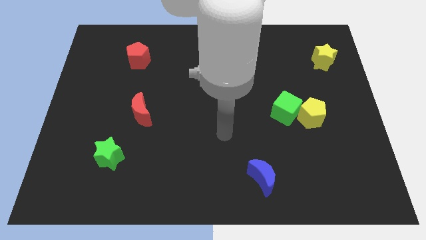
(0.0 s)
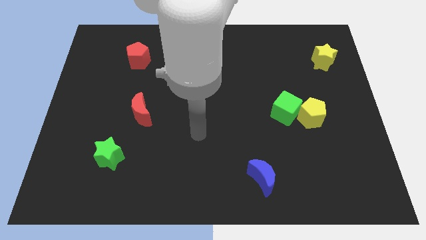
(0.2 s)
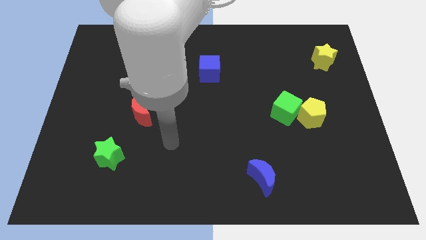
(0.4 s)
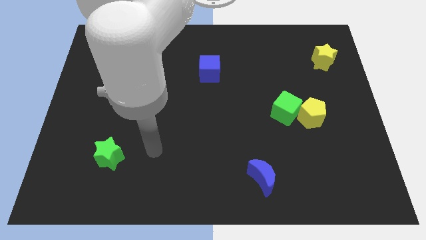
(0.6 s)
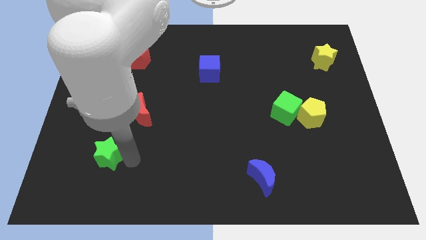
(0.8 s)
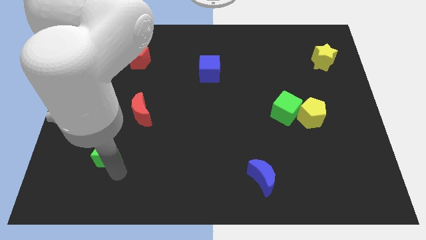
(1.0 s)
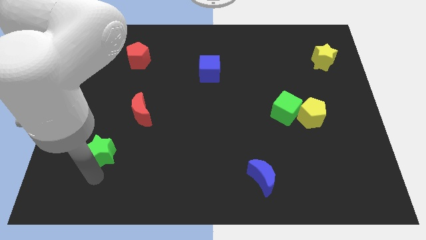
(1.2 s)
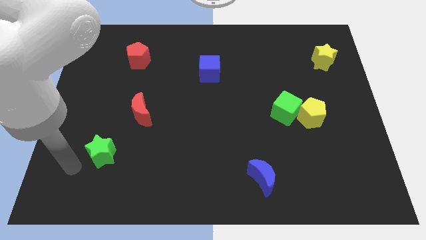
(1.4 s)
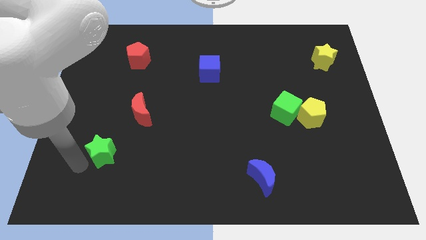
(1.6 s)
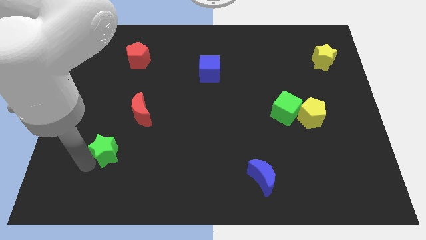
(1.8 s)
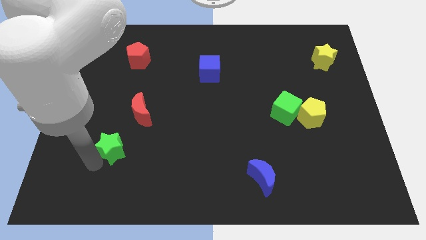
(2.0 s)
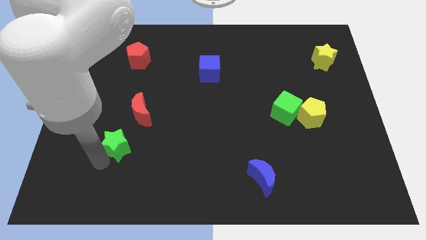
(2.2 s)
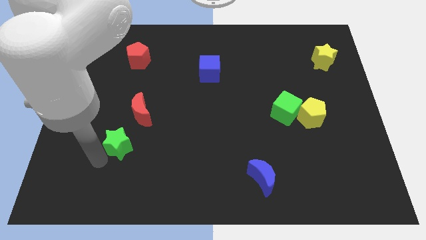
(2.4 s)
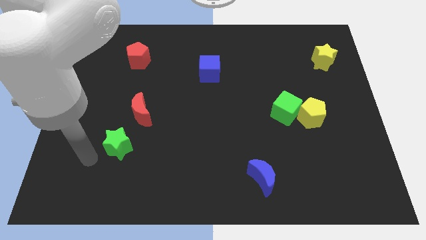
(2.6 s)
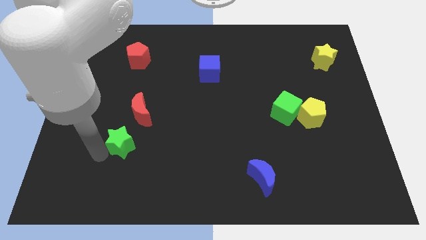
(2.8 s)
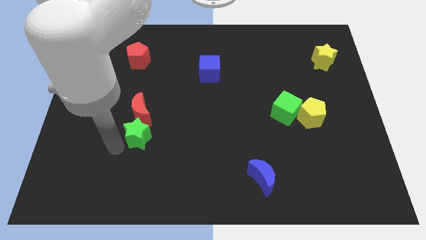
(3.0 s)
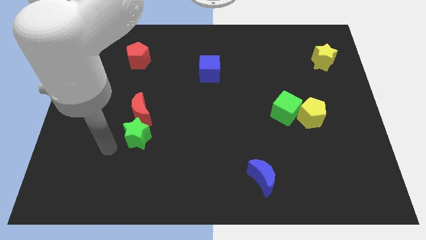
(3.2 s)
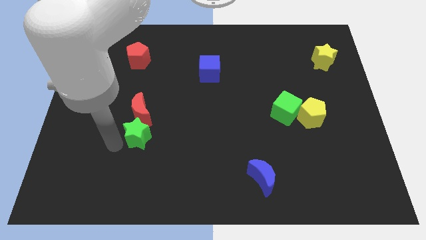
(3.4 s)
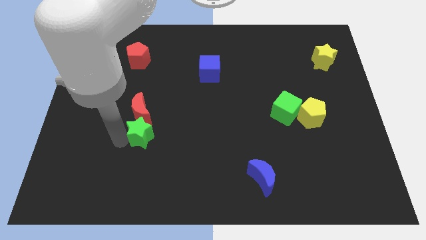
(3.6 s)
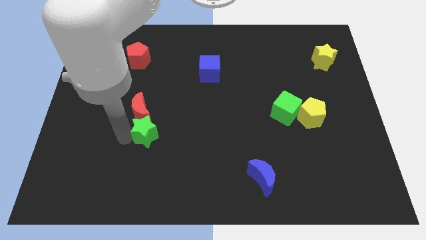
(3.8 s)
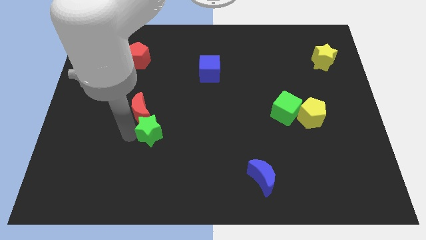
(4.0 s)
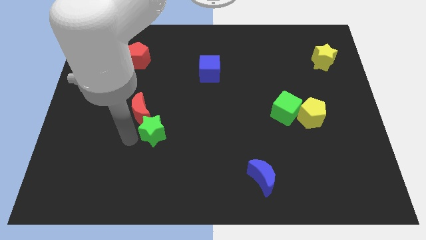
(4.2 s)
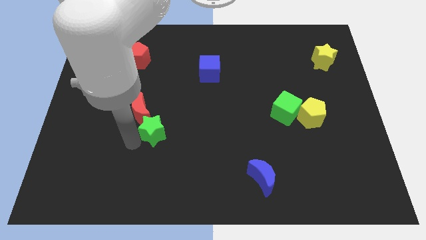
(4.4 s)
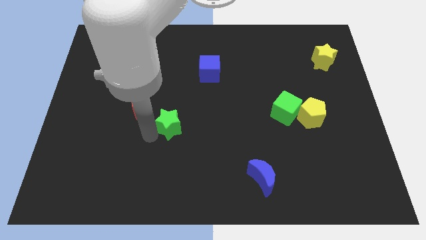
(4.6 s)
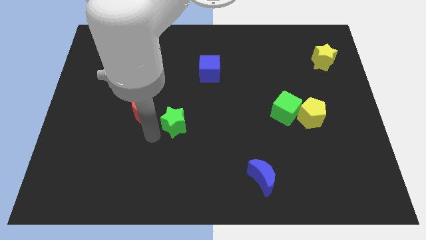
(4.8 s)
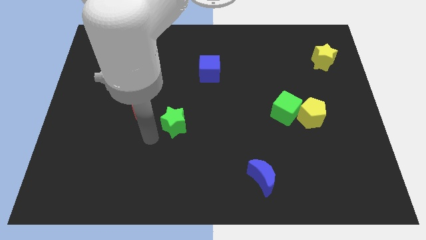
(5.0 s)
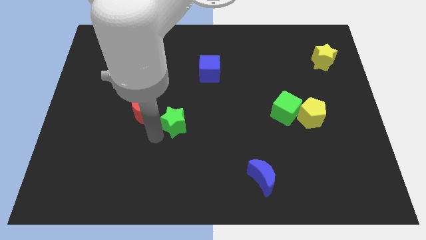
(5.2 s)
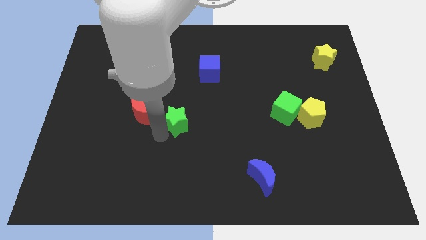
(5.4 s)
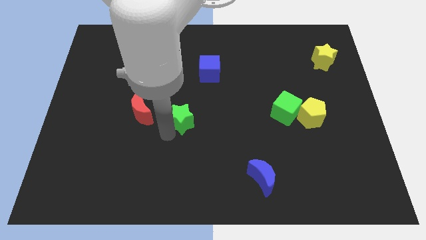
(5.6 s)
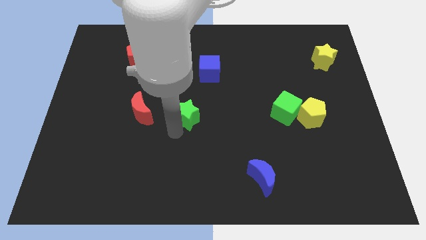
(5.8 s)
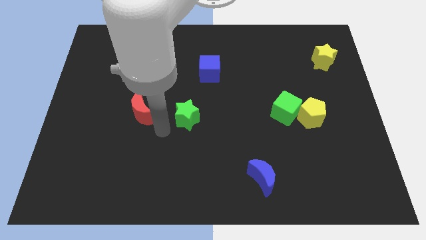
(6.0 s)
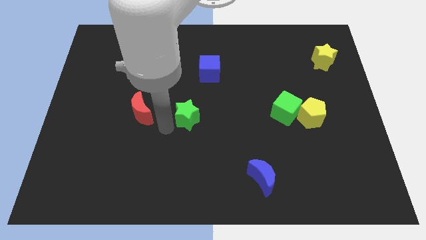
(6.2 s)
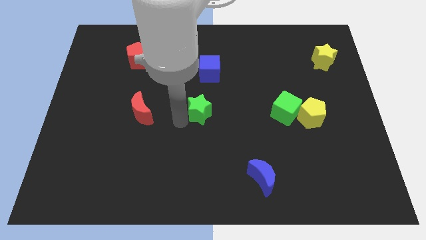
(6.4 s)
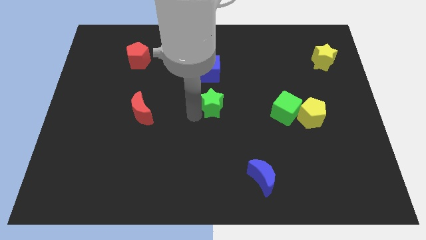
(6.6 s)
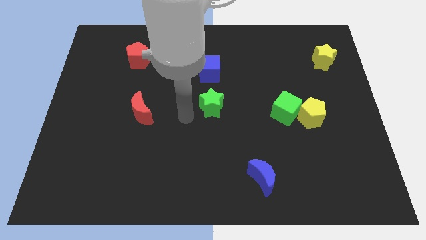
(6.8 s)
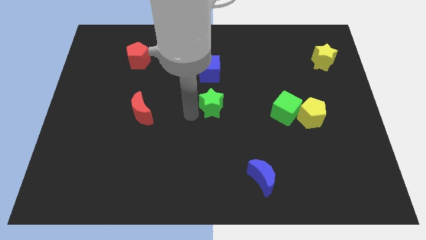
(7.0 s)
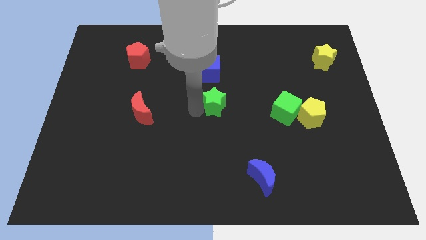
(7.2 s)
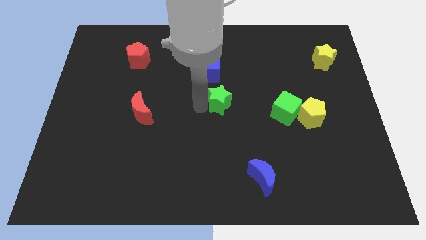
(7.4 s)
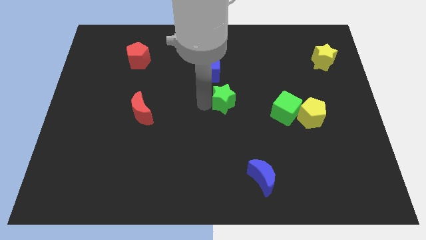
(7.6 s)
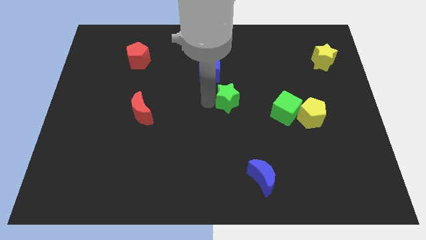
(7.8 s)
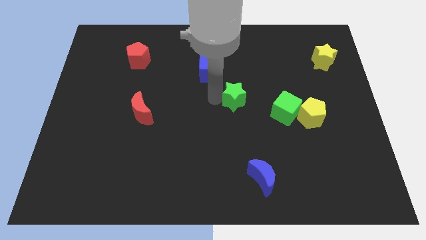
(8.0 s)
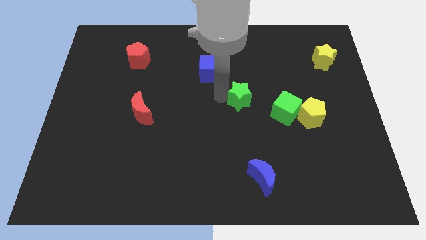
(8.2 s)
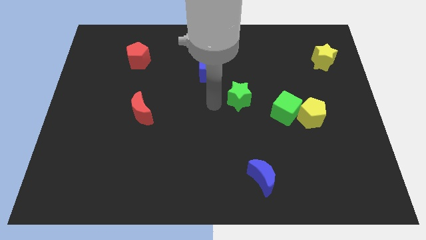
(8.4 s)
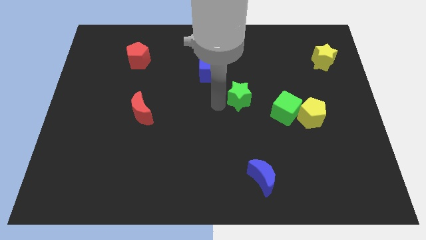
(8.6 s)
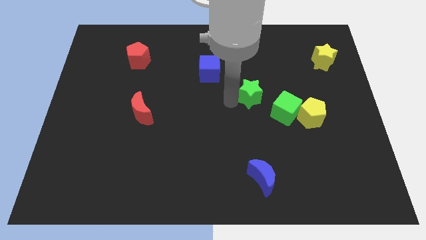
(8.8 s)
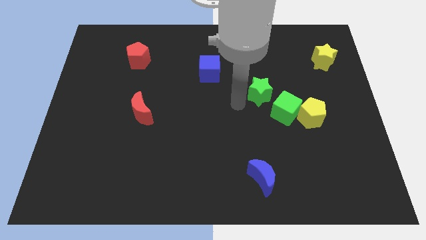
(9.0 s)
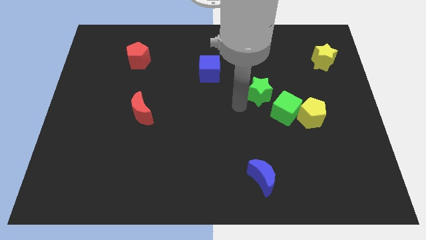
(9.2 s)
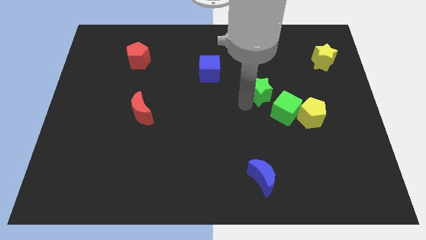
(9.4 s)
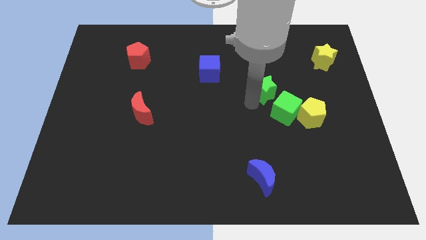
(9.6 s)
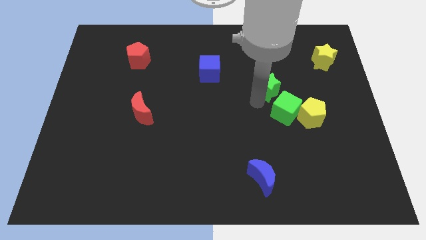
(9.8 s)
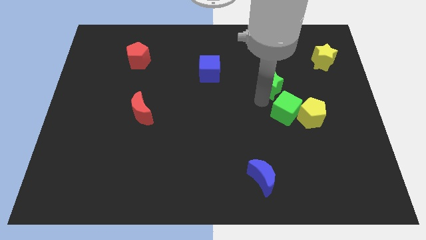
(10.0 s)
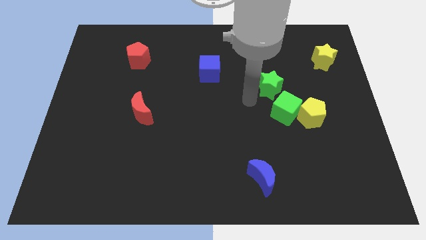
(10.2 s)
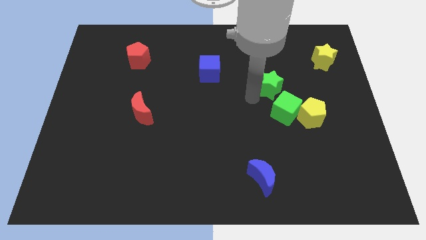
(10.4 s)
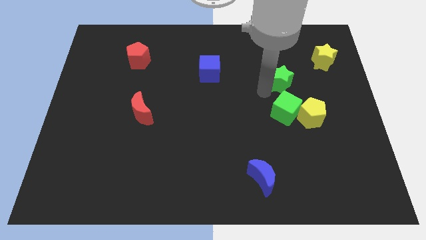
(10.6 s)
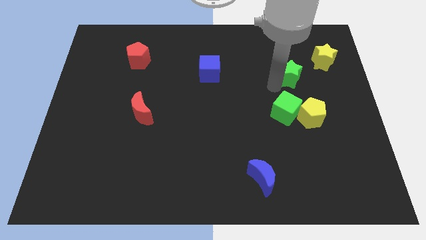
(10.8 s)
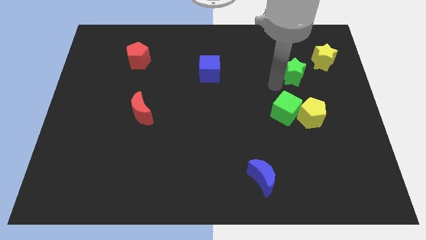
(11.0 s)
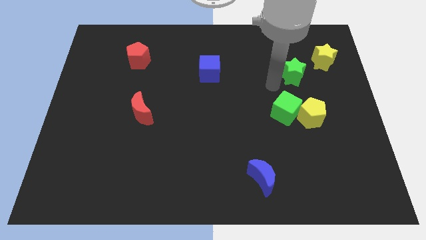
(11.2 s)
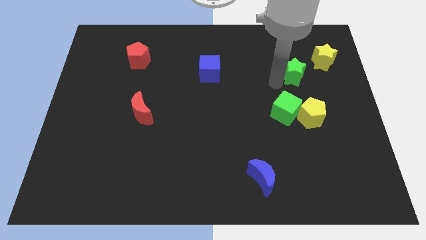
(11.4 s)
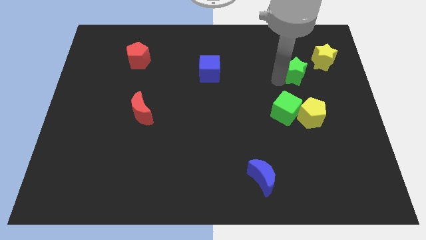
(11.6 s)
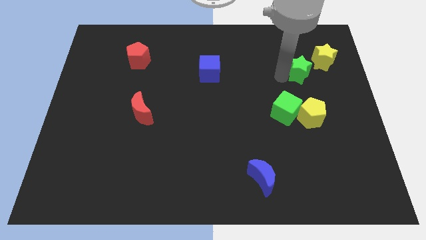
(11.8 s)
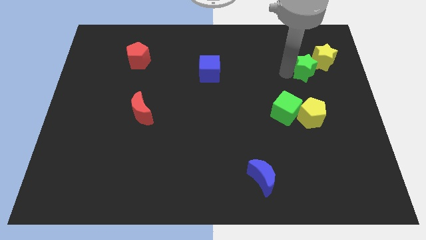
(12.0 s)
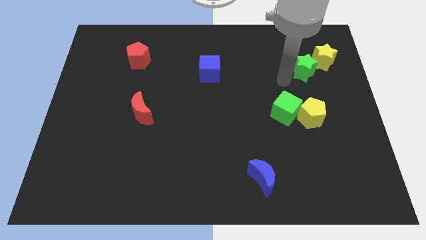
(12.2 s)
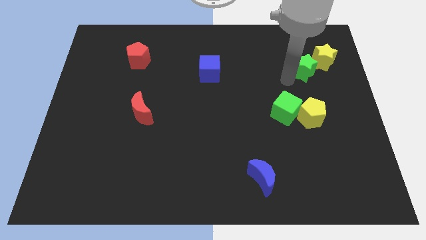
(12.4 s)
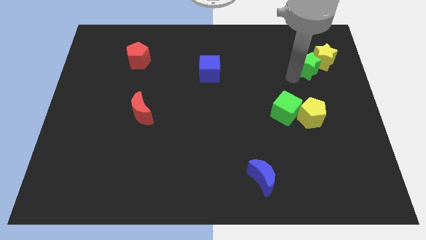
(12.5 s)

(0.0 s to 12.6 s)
put the green star close to the yellow star

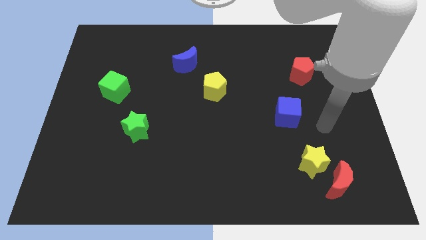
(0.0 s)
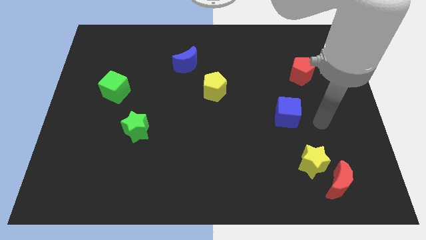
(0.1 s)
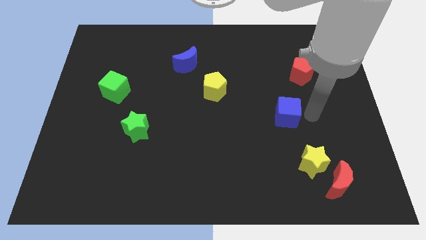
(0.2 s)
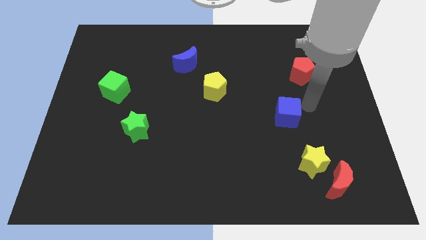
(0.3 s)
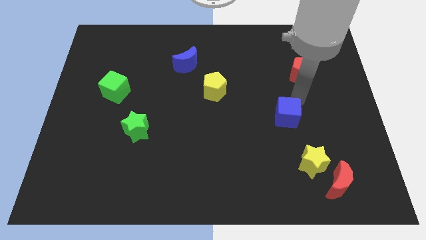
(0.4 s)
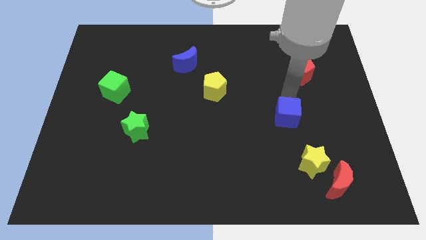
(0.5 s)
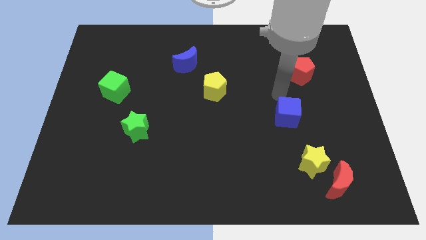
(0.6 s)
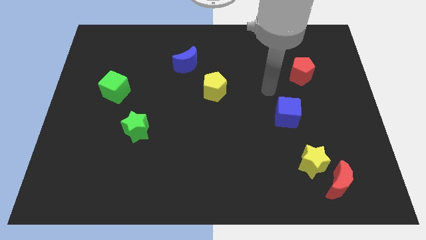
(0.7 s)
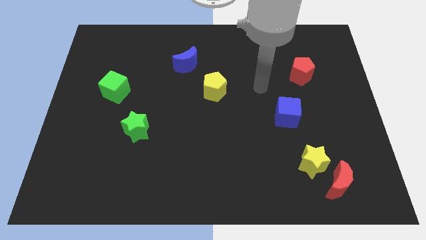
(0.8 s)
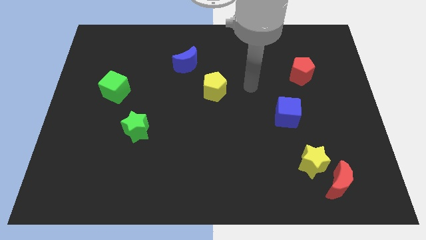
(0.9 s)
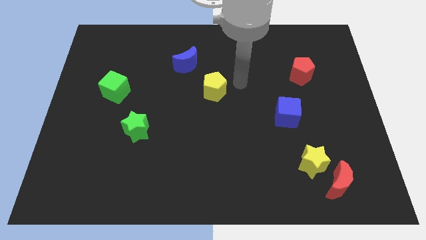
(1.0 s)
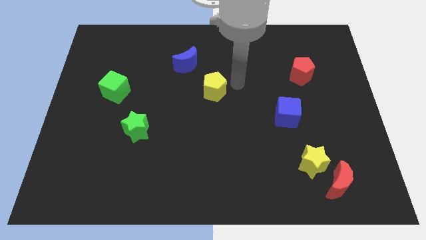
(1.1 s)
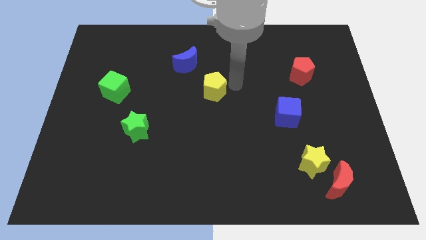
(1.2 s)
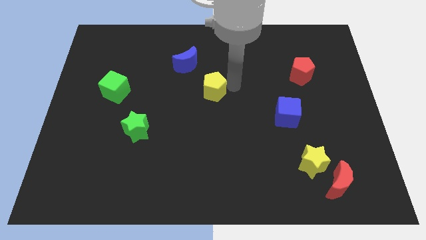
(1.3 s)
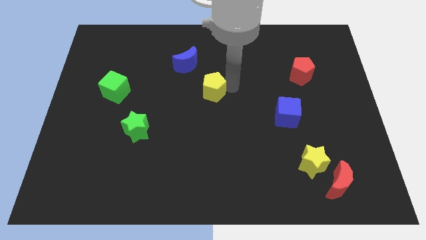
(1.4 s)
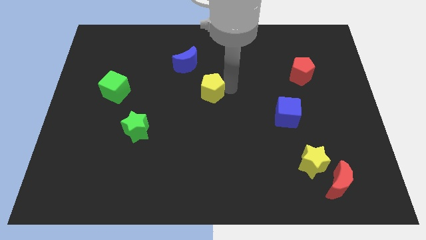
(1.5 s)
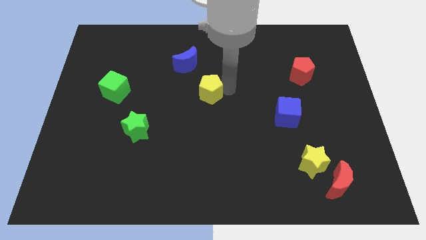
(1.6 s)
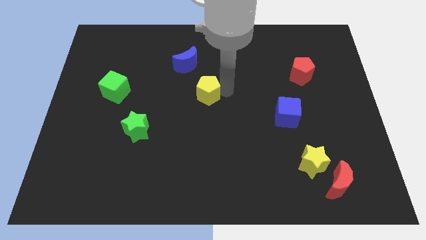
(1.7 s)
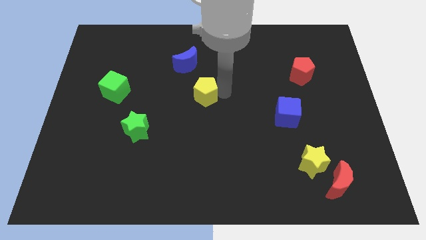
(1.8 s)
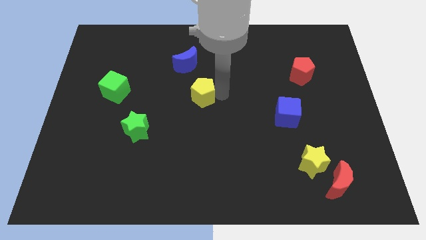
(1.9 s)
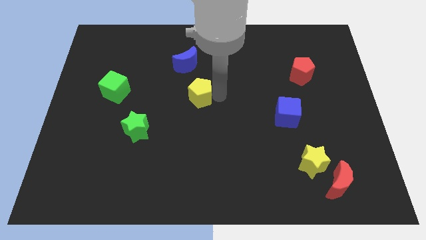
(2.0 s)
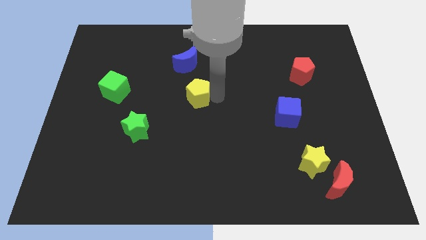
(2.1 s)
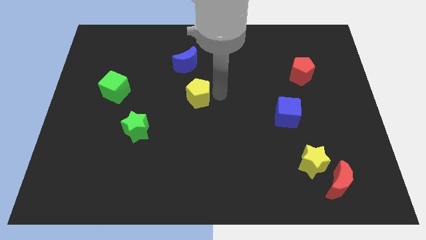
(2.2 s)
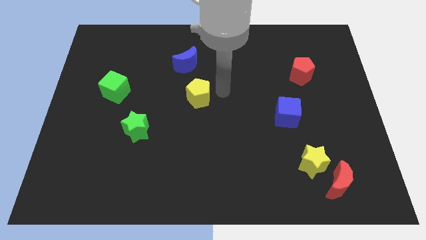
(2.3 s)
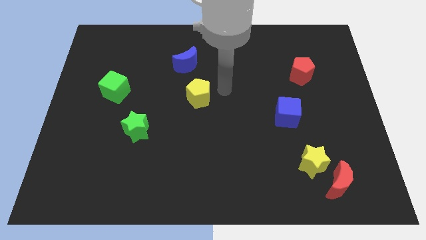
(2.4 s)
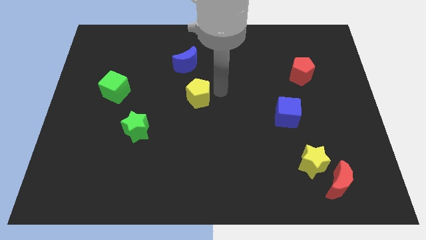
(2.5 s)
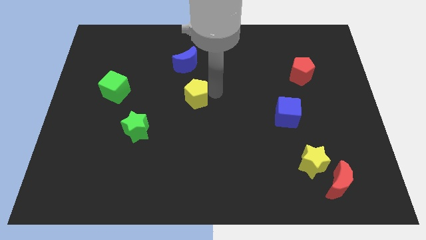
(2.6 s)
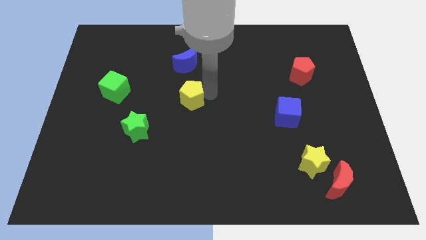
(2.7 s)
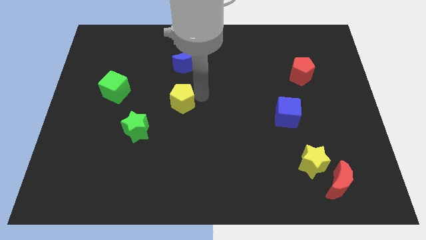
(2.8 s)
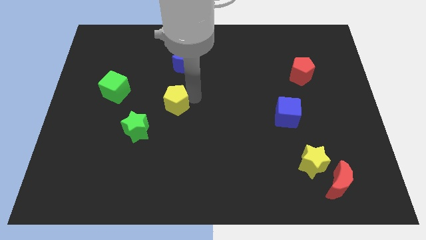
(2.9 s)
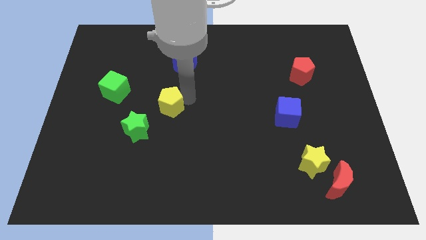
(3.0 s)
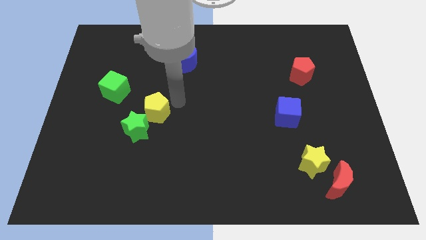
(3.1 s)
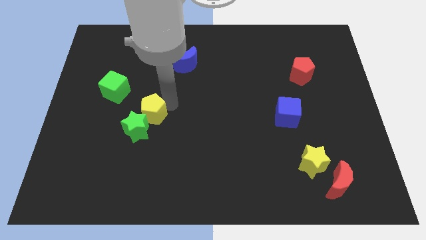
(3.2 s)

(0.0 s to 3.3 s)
put the yellow pentagon close to the green star
